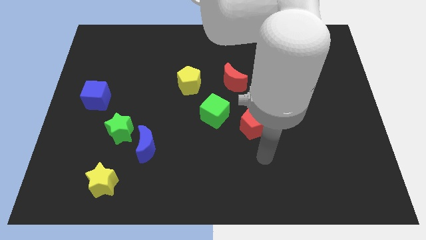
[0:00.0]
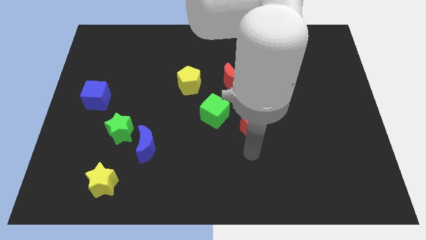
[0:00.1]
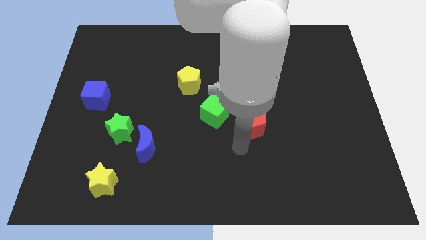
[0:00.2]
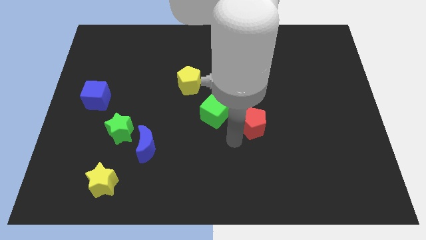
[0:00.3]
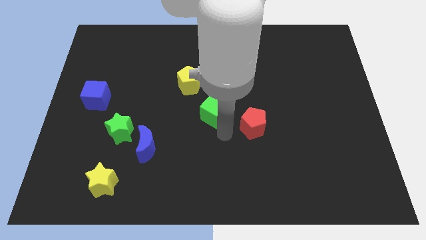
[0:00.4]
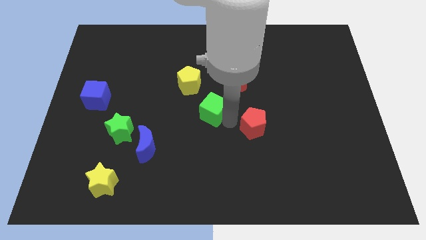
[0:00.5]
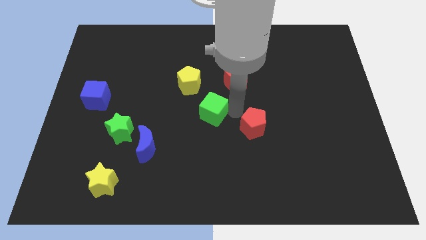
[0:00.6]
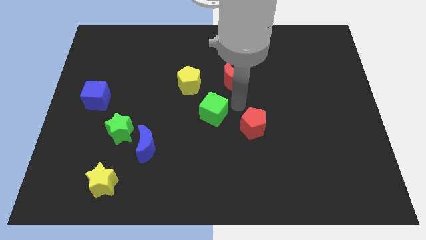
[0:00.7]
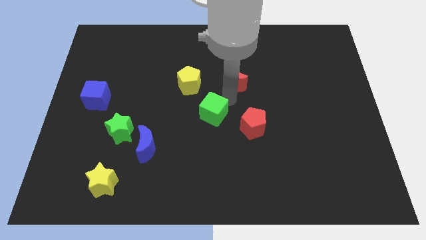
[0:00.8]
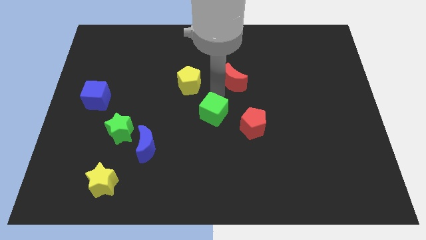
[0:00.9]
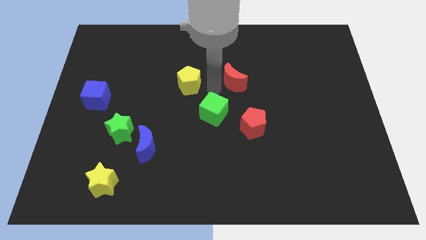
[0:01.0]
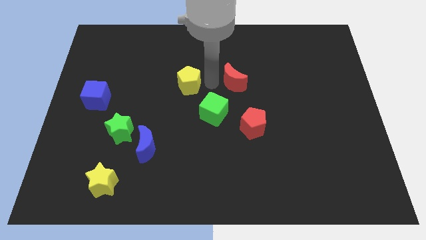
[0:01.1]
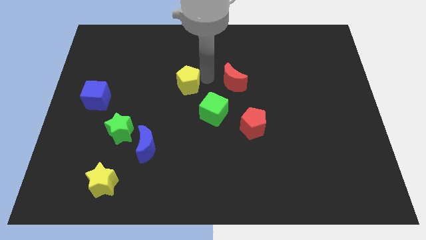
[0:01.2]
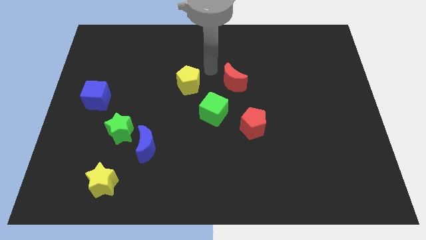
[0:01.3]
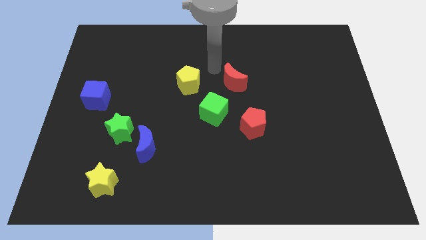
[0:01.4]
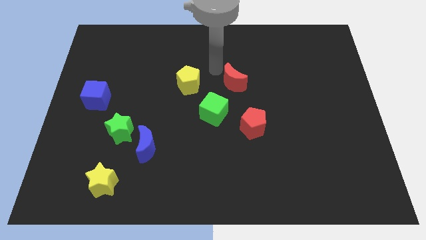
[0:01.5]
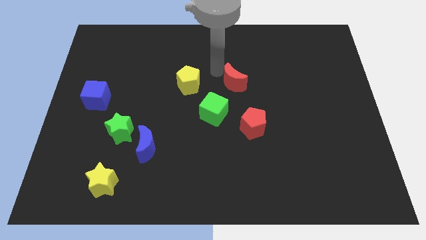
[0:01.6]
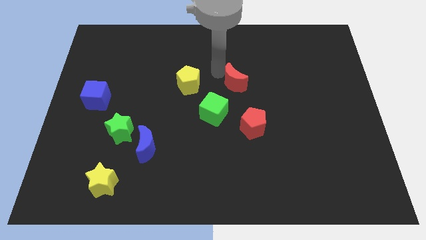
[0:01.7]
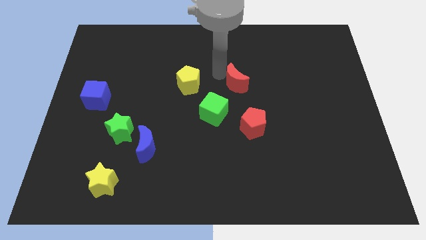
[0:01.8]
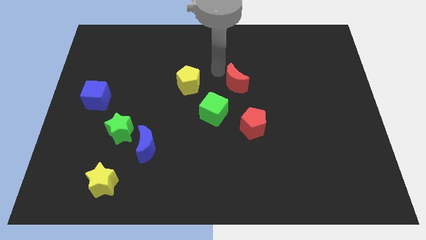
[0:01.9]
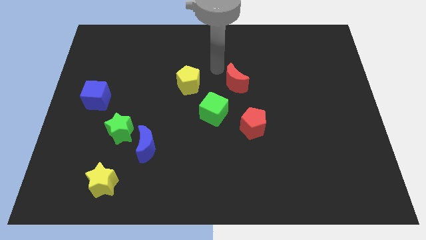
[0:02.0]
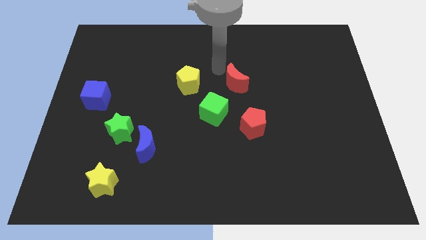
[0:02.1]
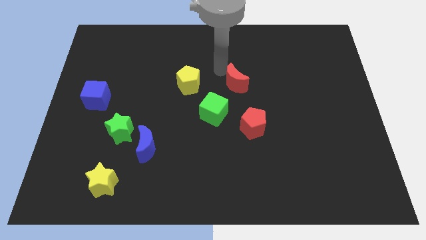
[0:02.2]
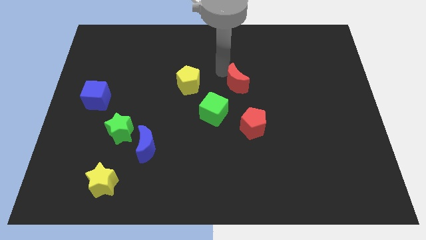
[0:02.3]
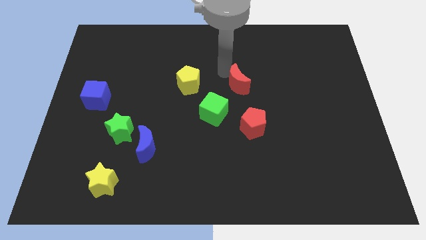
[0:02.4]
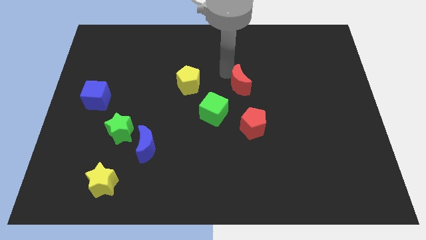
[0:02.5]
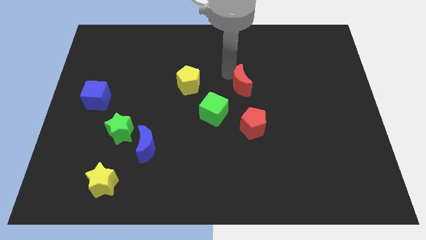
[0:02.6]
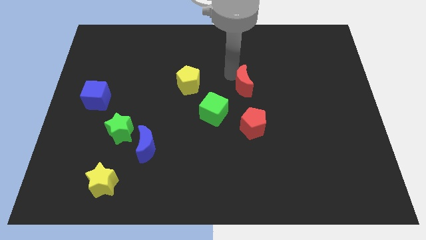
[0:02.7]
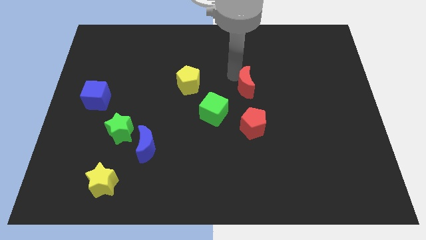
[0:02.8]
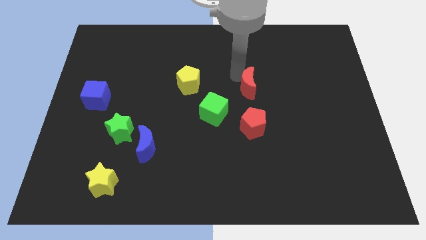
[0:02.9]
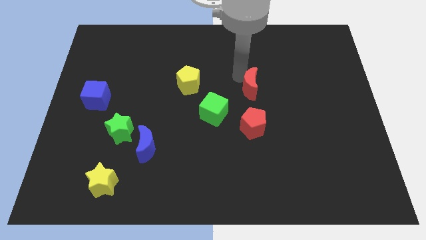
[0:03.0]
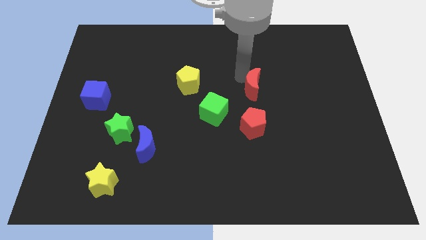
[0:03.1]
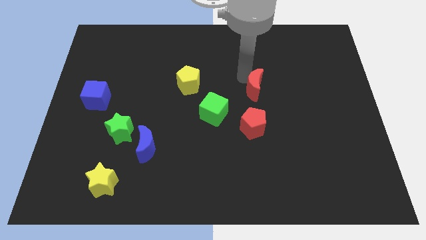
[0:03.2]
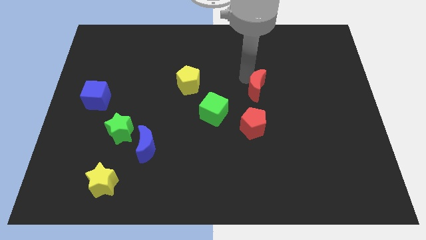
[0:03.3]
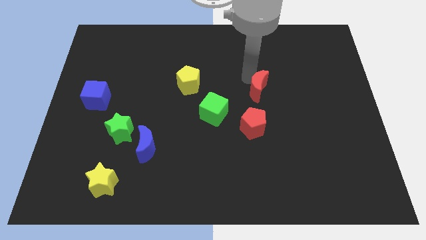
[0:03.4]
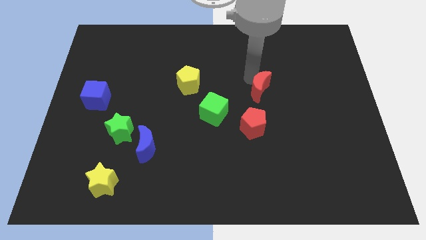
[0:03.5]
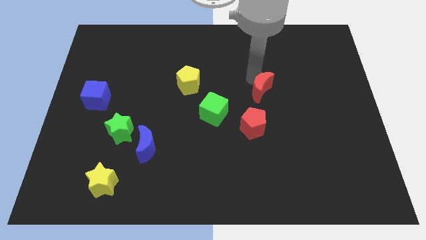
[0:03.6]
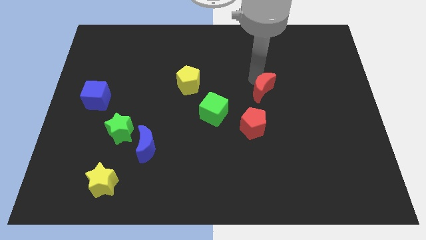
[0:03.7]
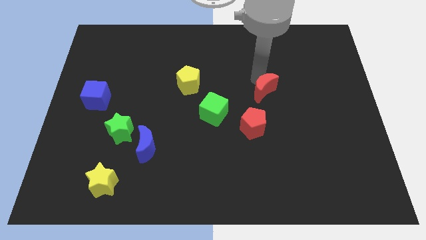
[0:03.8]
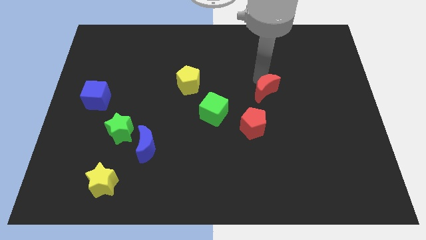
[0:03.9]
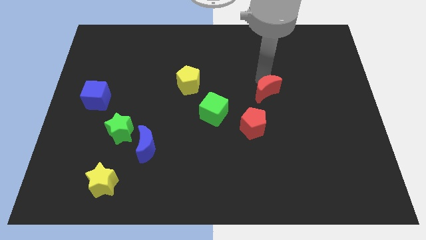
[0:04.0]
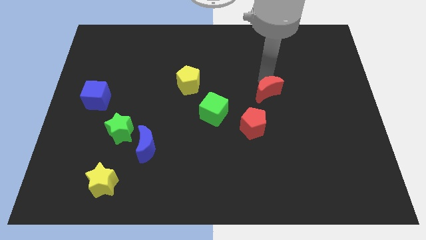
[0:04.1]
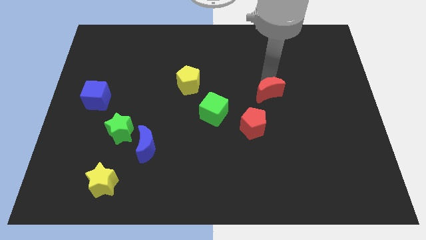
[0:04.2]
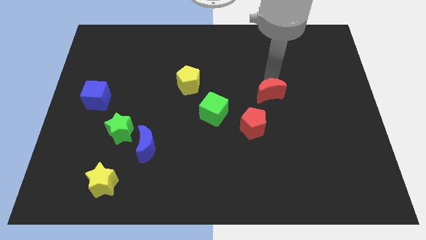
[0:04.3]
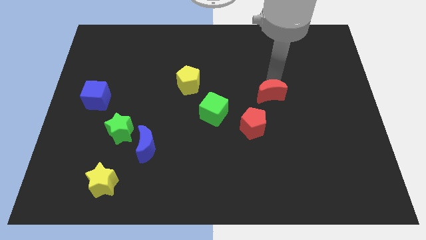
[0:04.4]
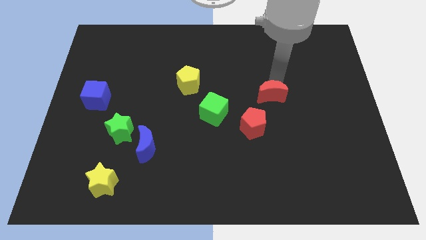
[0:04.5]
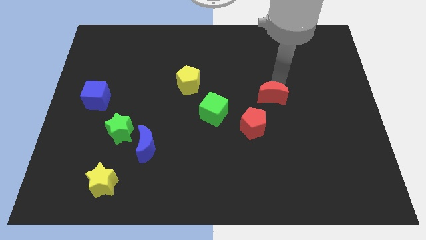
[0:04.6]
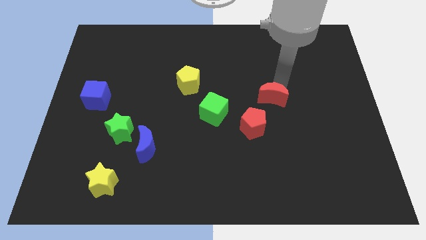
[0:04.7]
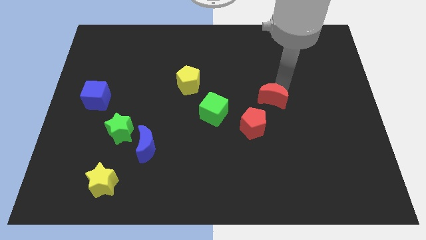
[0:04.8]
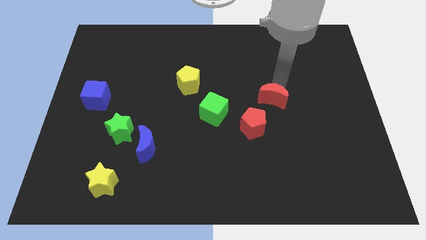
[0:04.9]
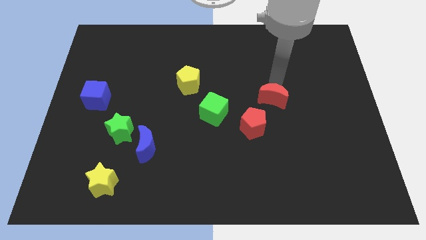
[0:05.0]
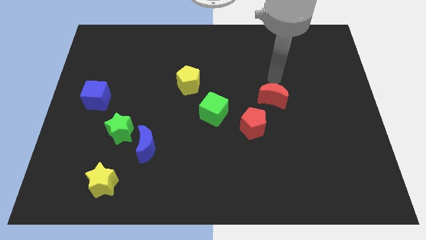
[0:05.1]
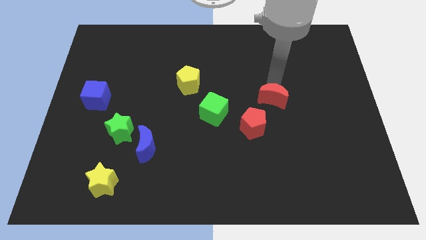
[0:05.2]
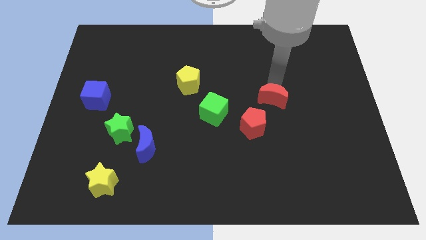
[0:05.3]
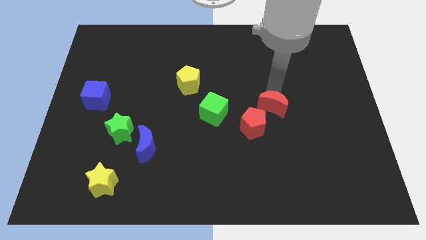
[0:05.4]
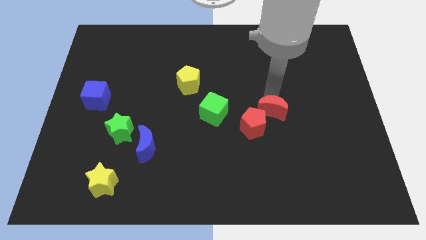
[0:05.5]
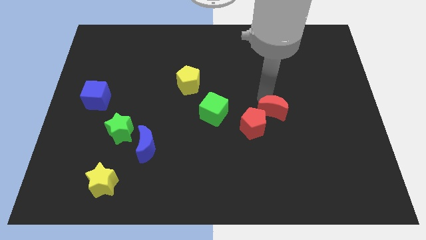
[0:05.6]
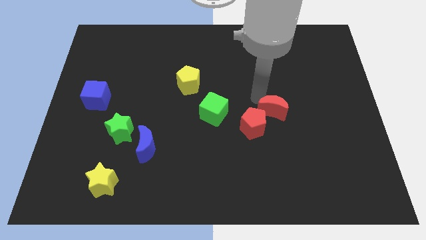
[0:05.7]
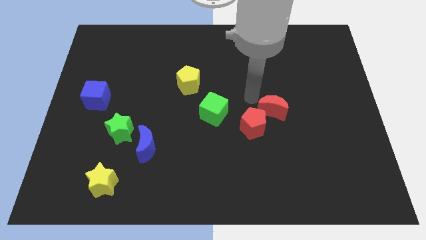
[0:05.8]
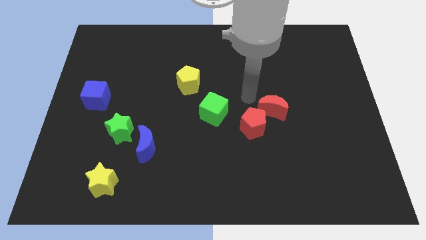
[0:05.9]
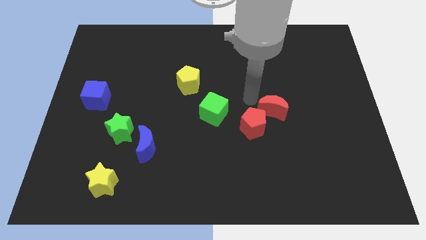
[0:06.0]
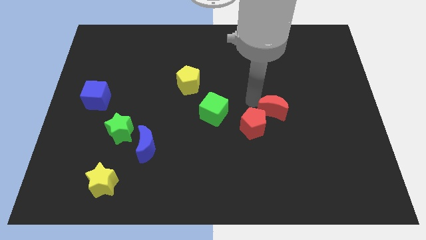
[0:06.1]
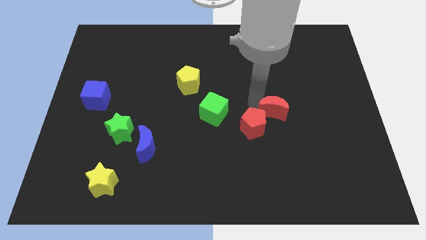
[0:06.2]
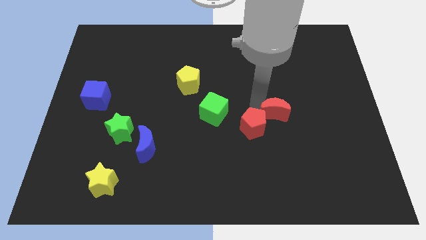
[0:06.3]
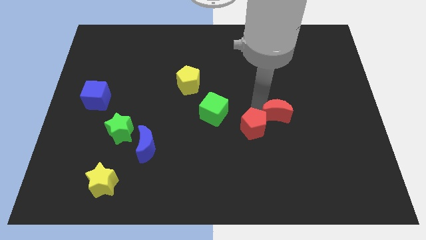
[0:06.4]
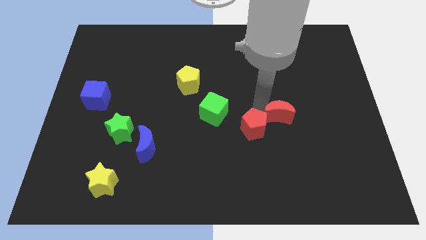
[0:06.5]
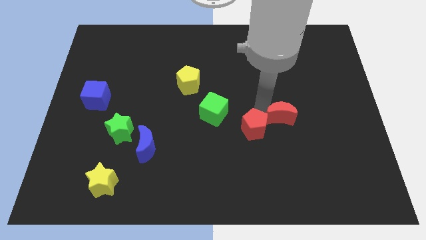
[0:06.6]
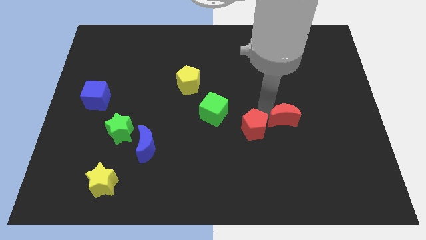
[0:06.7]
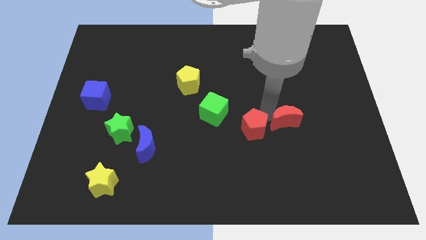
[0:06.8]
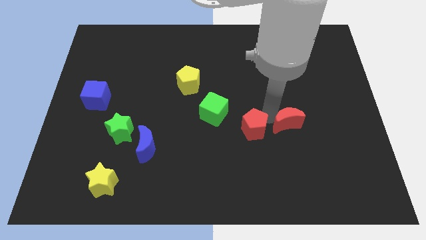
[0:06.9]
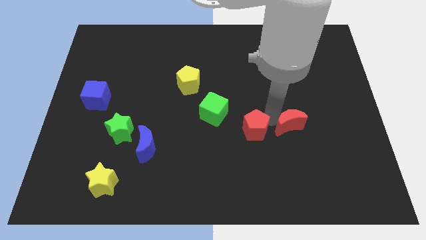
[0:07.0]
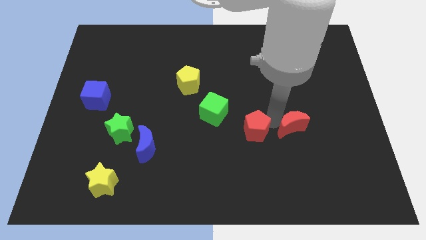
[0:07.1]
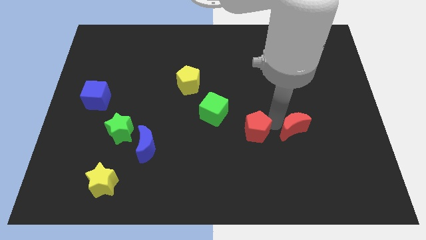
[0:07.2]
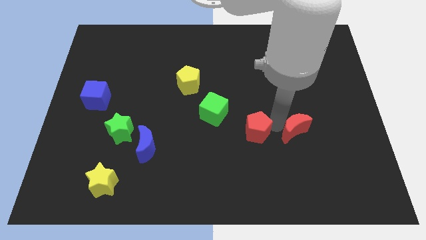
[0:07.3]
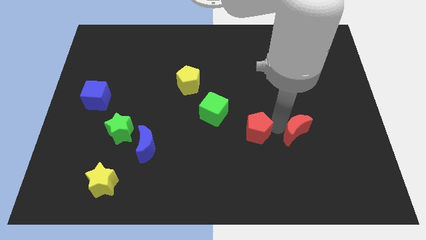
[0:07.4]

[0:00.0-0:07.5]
move the red moon down and to the right diagonally

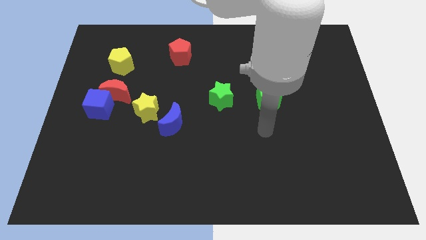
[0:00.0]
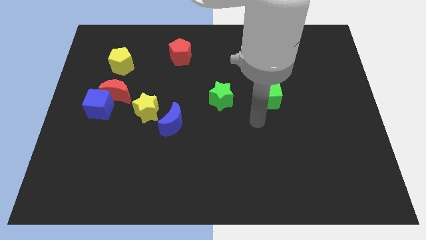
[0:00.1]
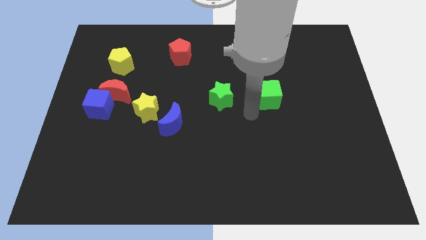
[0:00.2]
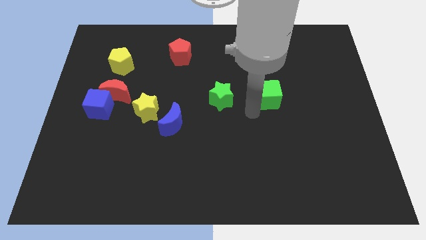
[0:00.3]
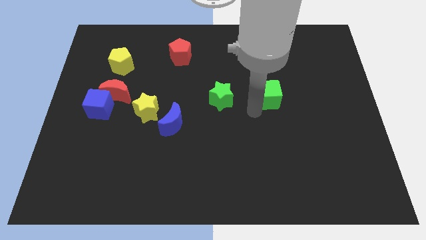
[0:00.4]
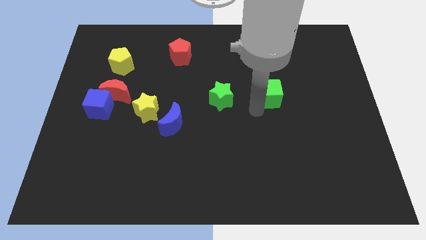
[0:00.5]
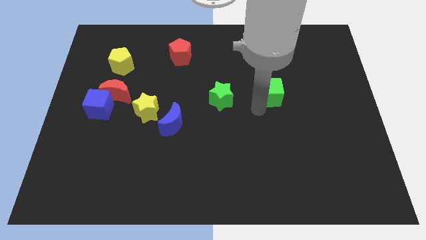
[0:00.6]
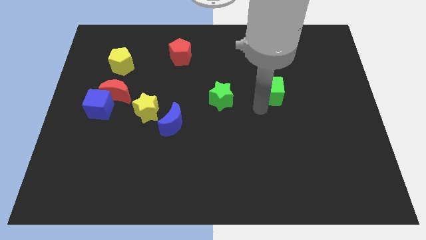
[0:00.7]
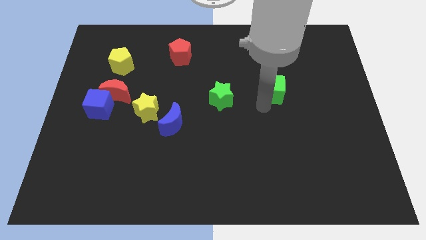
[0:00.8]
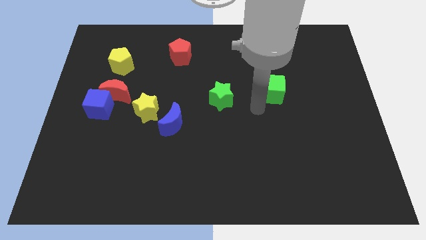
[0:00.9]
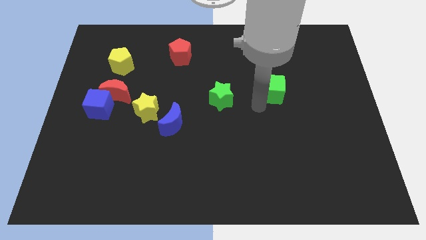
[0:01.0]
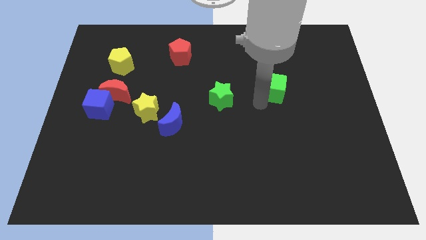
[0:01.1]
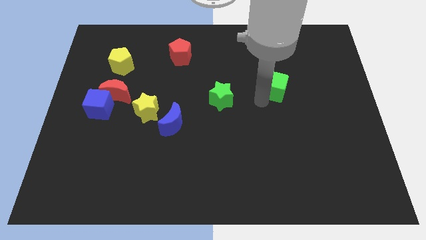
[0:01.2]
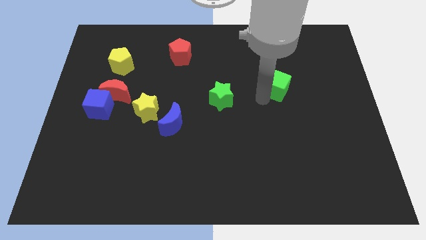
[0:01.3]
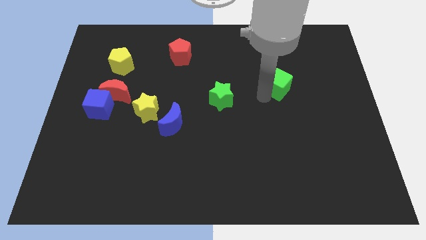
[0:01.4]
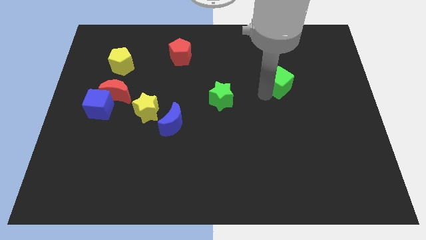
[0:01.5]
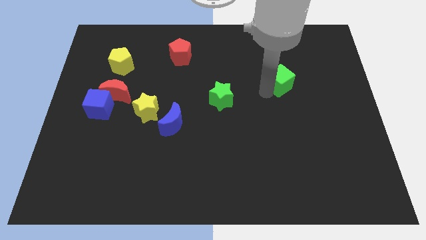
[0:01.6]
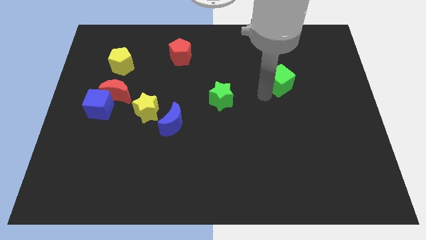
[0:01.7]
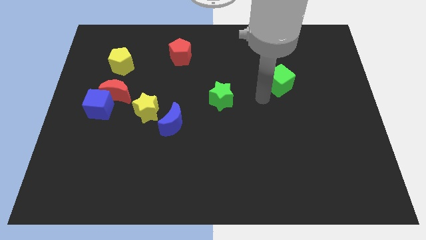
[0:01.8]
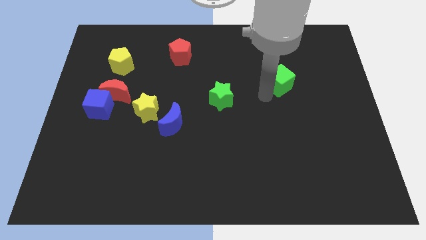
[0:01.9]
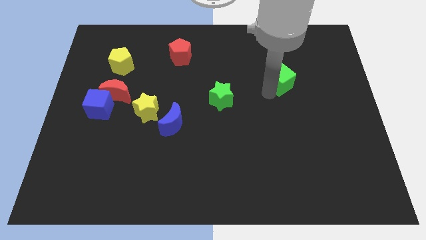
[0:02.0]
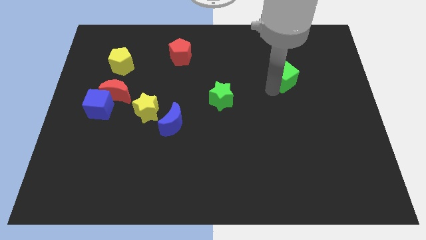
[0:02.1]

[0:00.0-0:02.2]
slide the green cube upwards and right a bit
